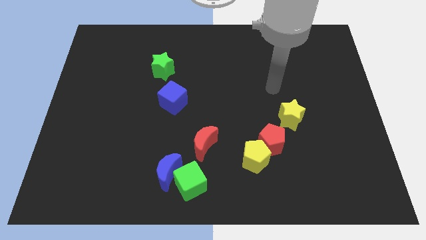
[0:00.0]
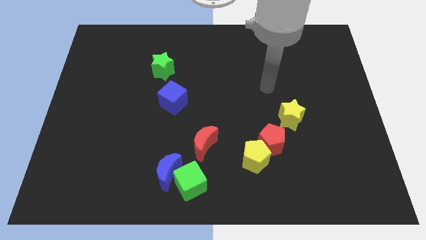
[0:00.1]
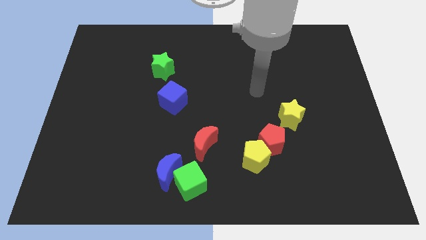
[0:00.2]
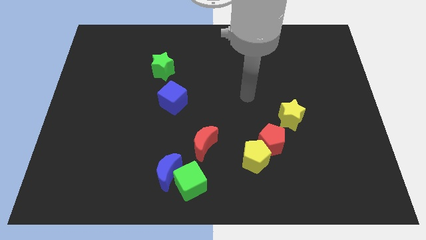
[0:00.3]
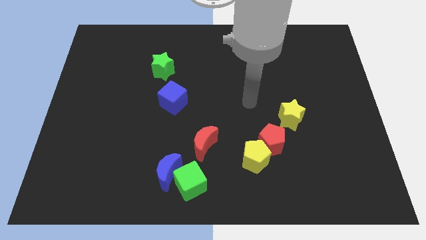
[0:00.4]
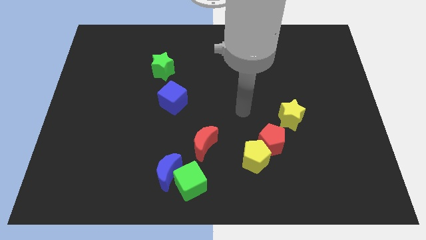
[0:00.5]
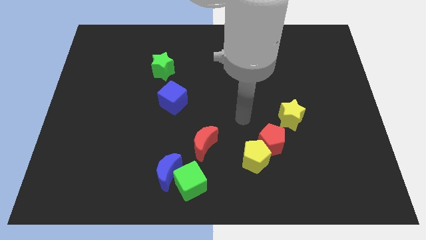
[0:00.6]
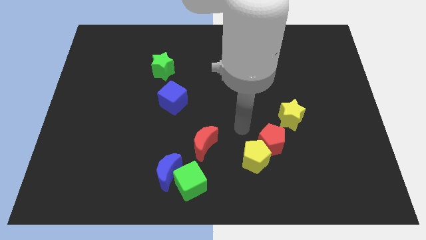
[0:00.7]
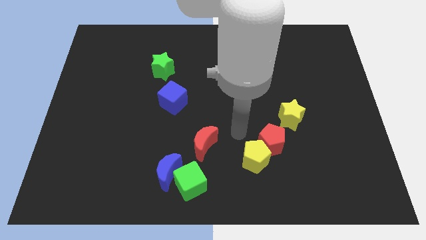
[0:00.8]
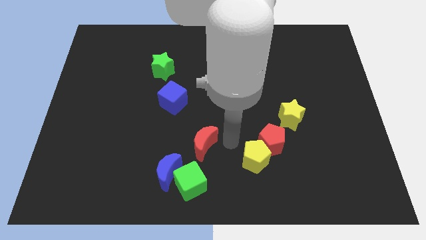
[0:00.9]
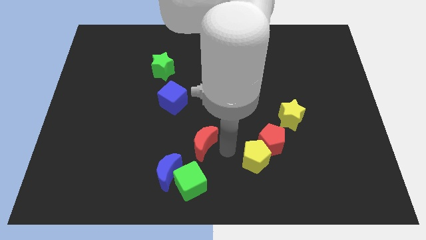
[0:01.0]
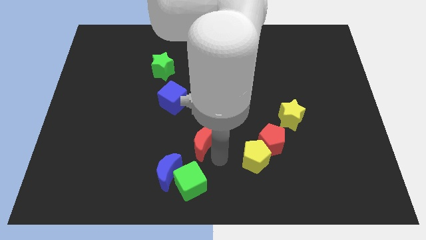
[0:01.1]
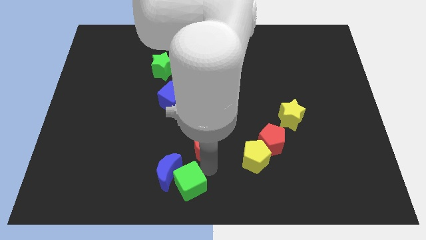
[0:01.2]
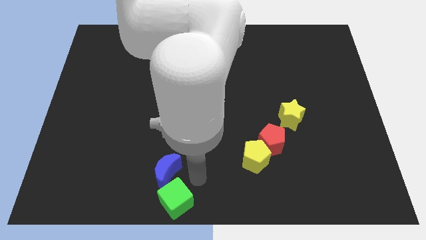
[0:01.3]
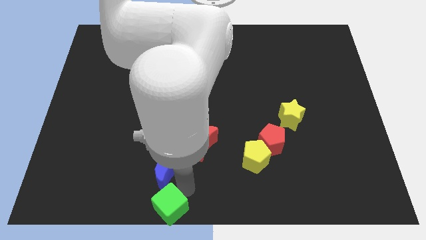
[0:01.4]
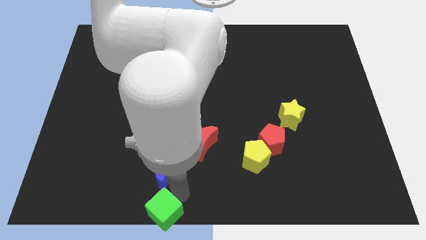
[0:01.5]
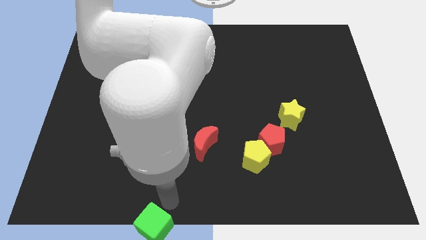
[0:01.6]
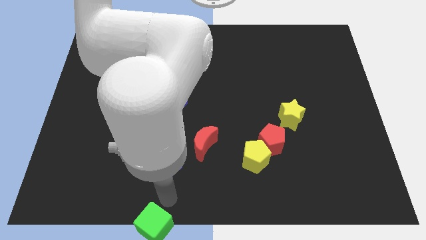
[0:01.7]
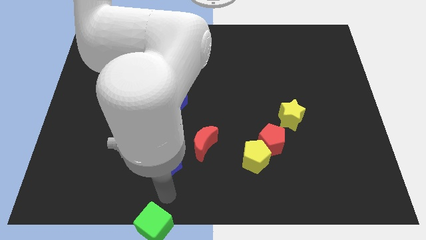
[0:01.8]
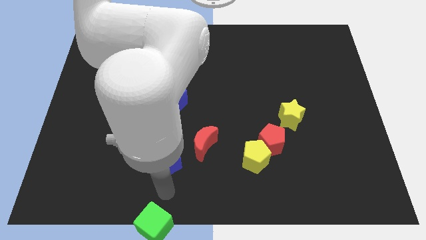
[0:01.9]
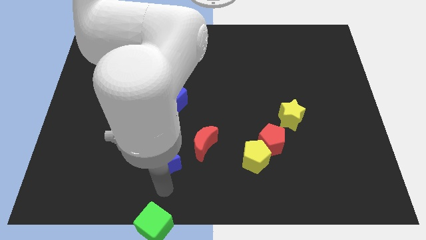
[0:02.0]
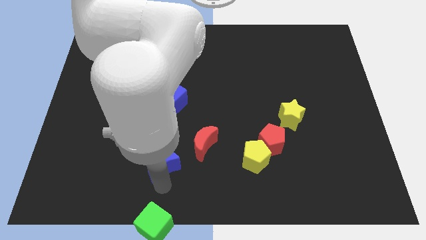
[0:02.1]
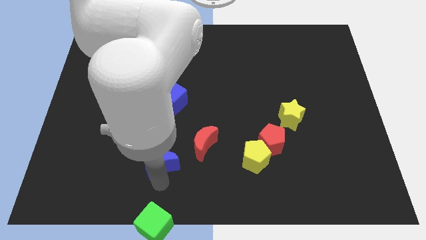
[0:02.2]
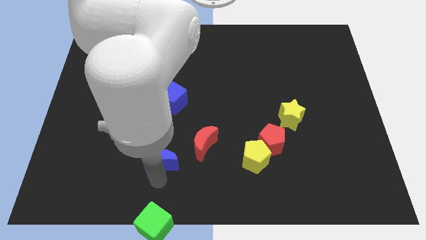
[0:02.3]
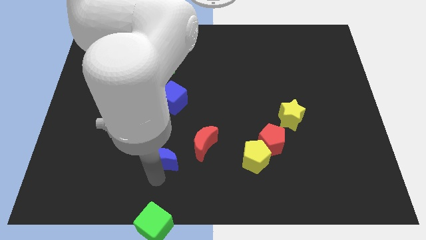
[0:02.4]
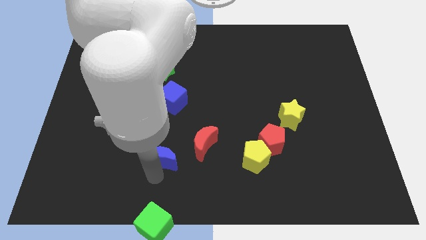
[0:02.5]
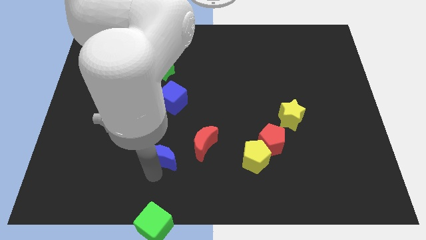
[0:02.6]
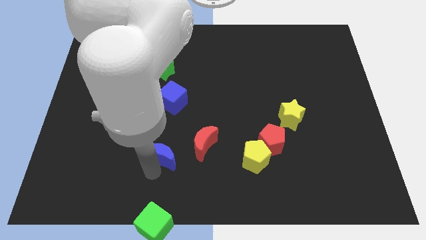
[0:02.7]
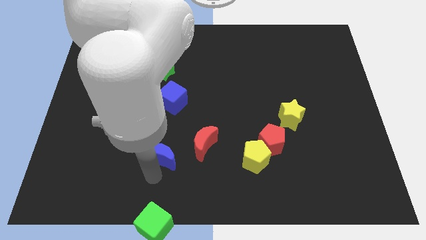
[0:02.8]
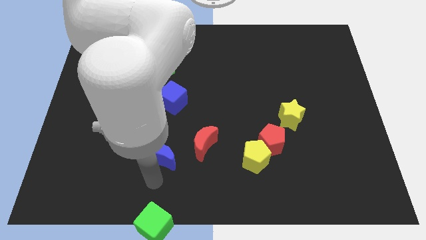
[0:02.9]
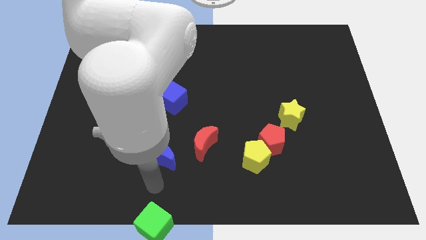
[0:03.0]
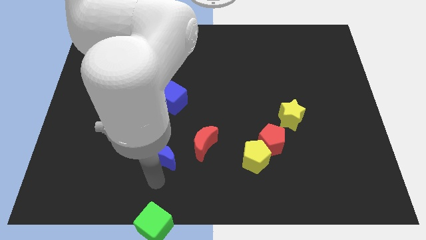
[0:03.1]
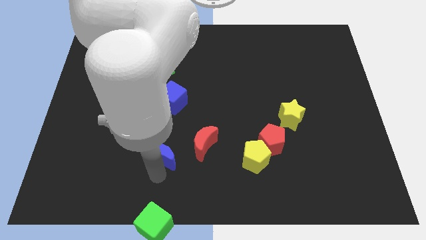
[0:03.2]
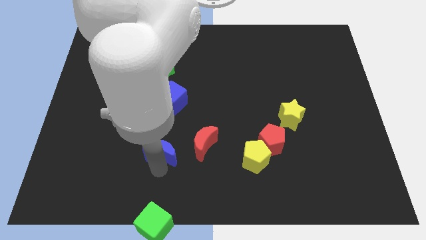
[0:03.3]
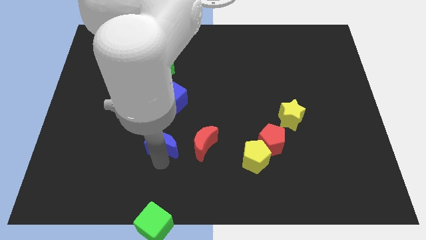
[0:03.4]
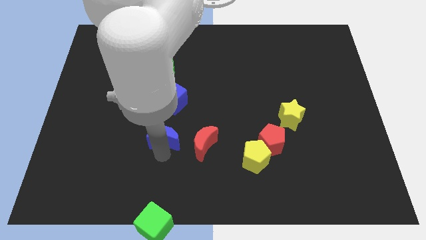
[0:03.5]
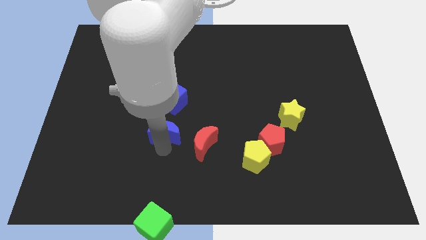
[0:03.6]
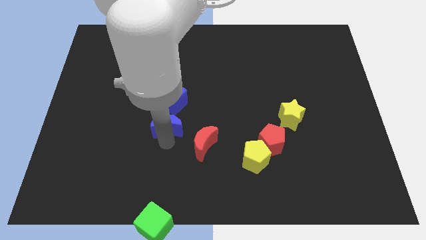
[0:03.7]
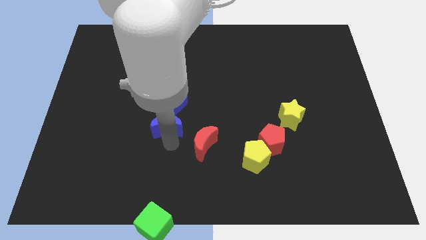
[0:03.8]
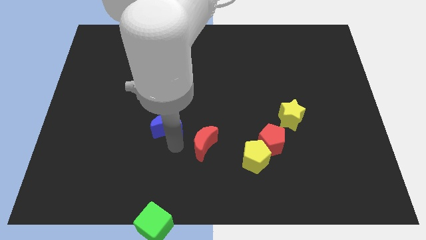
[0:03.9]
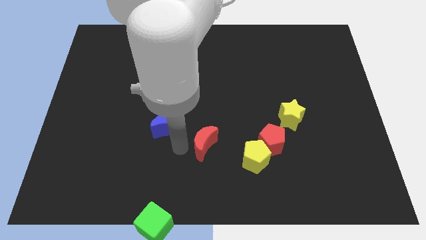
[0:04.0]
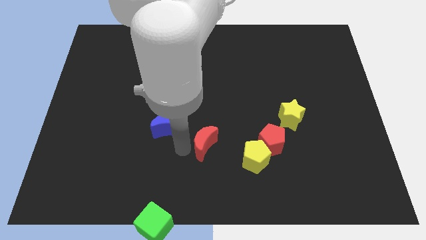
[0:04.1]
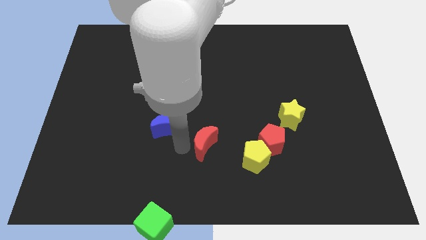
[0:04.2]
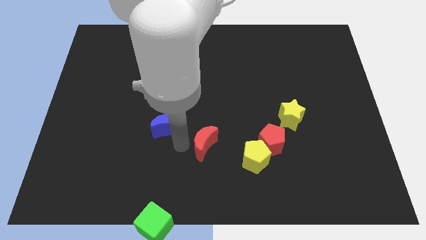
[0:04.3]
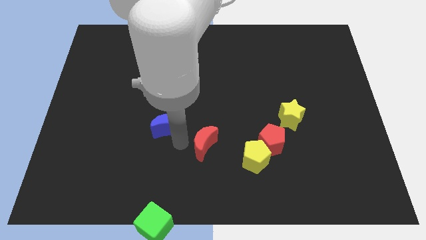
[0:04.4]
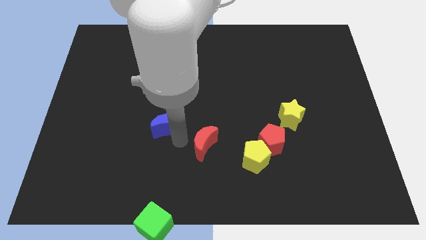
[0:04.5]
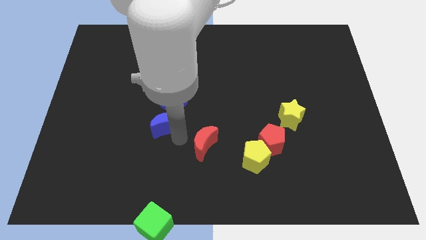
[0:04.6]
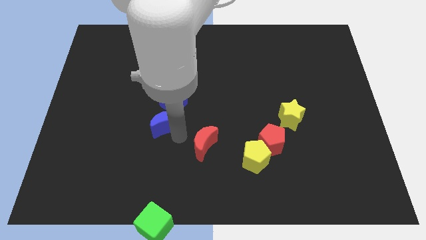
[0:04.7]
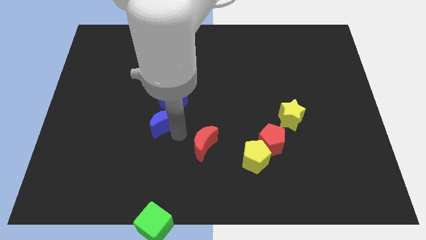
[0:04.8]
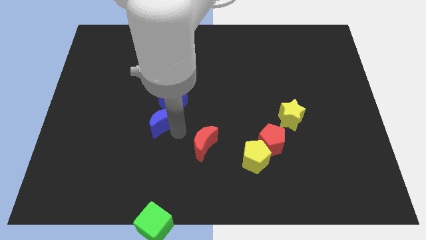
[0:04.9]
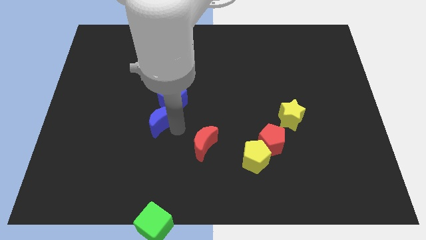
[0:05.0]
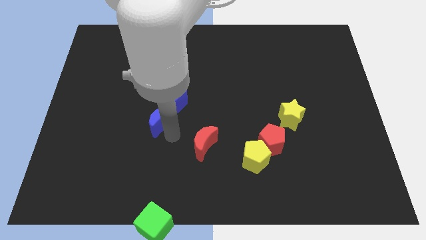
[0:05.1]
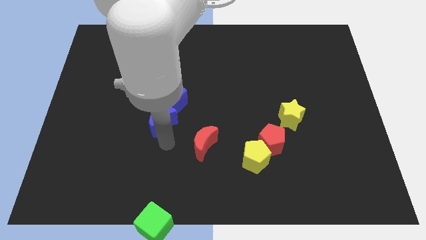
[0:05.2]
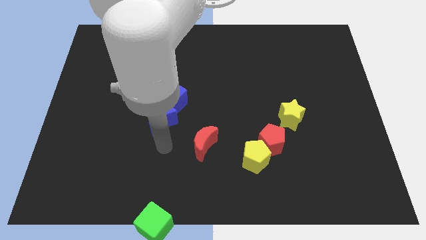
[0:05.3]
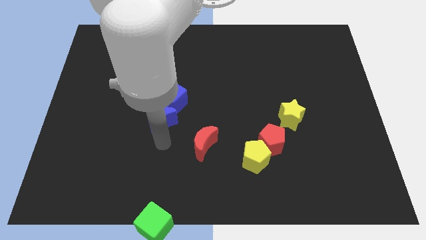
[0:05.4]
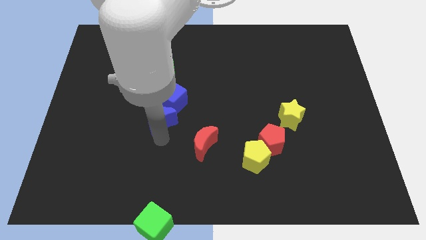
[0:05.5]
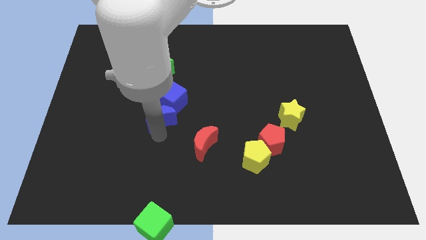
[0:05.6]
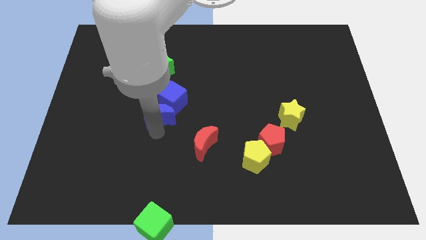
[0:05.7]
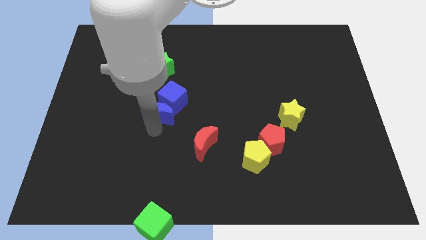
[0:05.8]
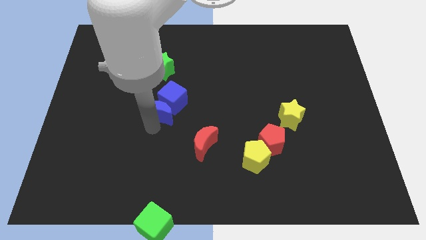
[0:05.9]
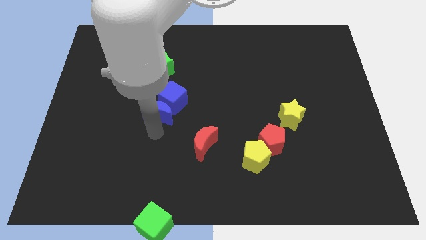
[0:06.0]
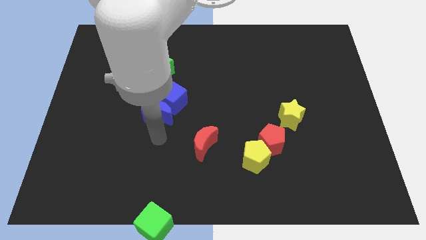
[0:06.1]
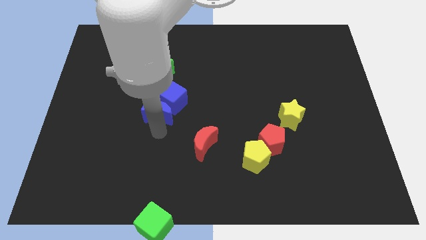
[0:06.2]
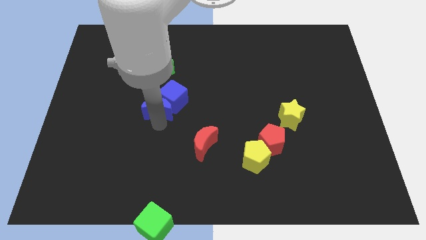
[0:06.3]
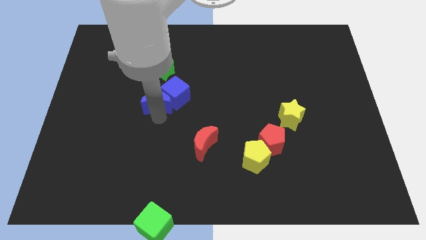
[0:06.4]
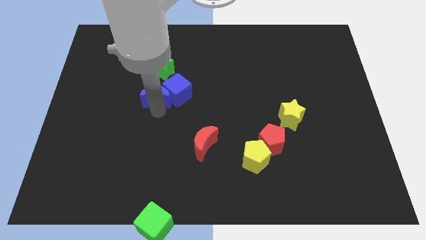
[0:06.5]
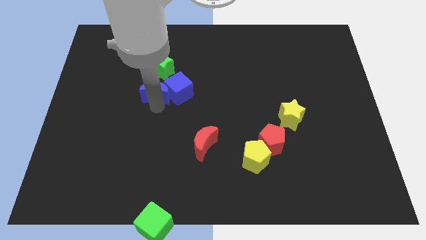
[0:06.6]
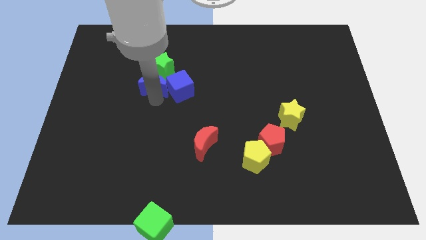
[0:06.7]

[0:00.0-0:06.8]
move the blue moon to the green star

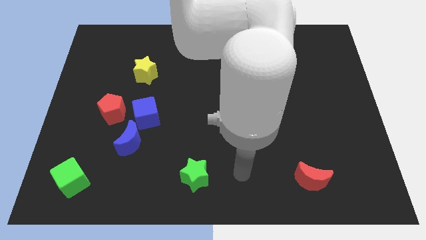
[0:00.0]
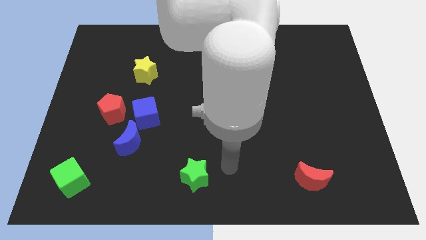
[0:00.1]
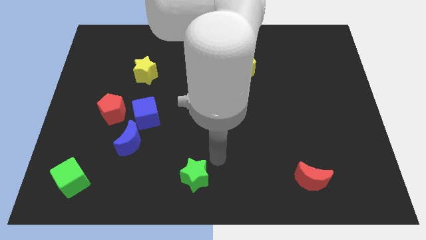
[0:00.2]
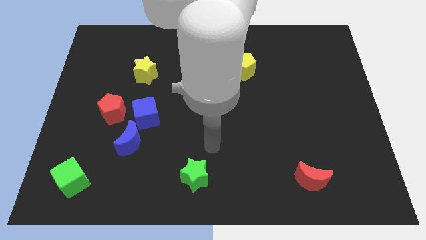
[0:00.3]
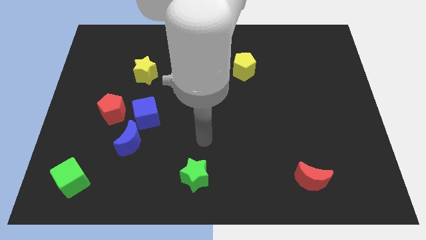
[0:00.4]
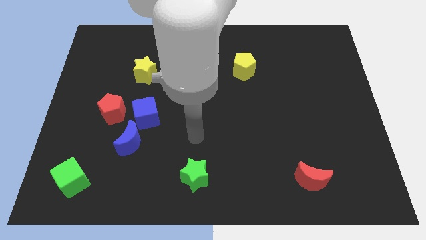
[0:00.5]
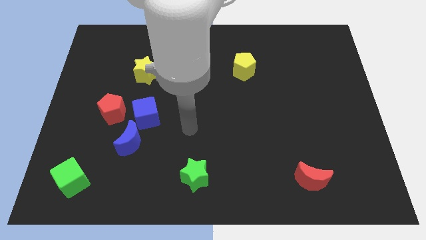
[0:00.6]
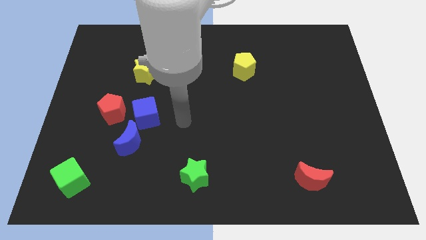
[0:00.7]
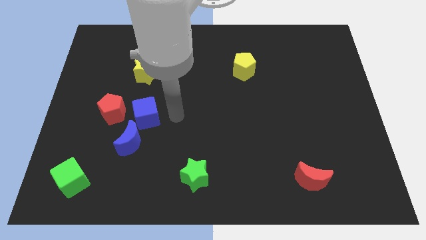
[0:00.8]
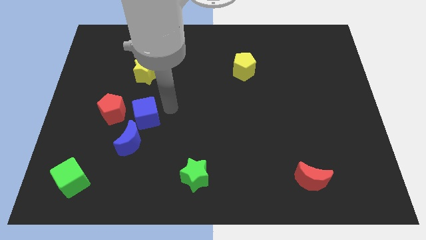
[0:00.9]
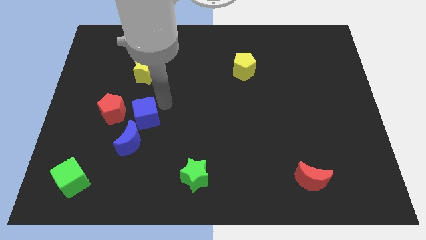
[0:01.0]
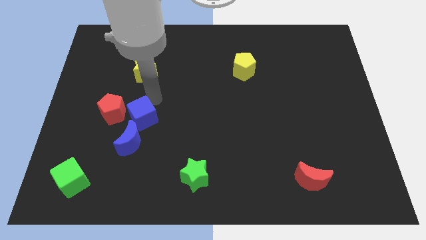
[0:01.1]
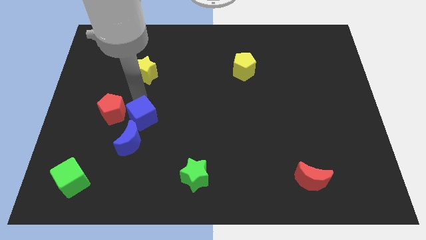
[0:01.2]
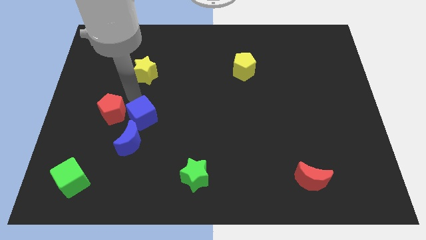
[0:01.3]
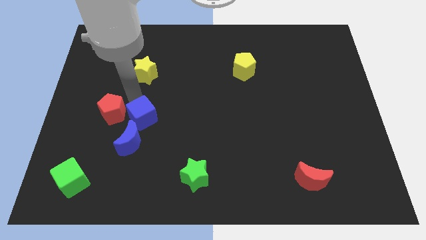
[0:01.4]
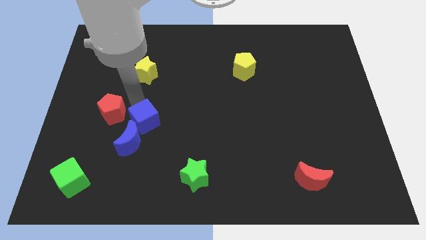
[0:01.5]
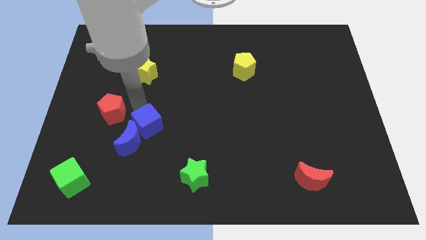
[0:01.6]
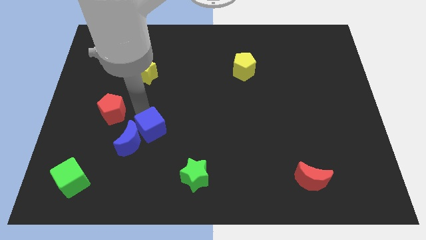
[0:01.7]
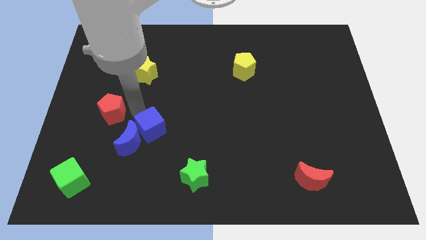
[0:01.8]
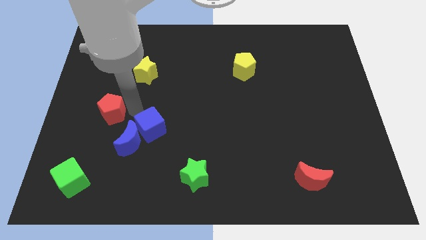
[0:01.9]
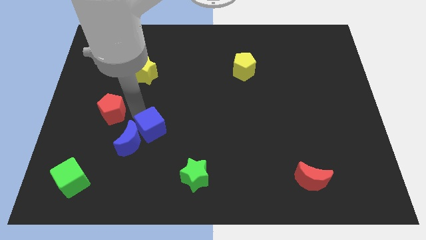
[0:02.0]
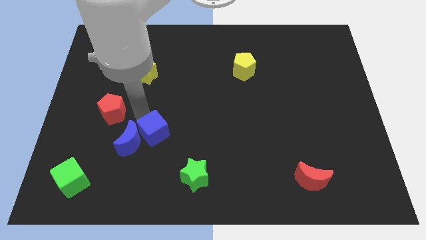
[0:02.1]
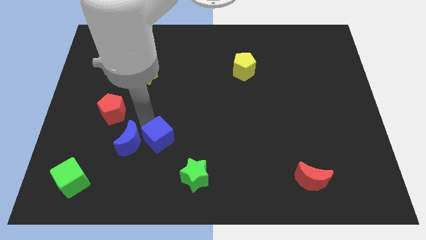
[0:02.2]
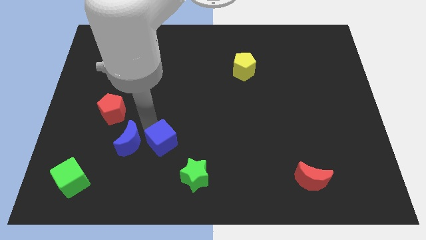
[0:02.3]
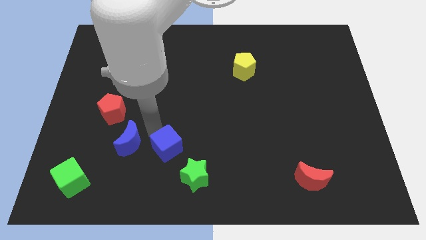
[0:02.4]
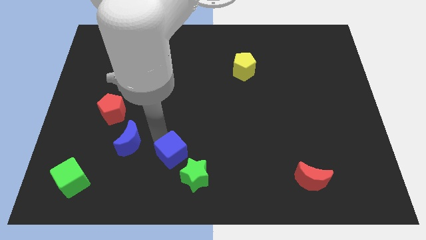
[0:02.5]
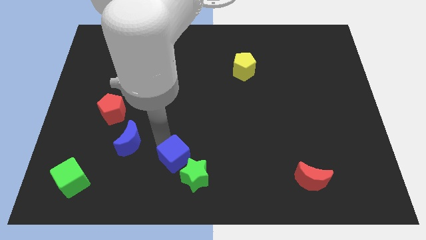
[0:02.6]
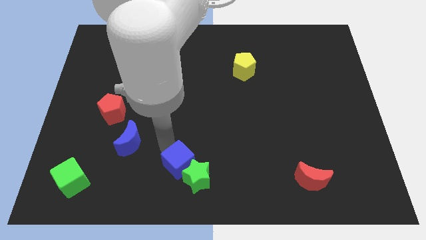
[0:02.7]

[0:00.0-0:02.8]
slide the blue cube close to the green star
